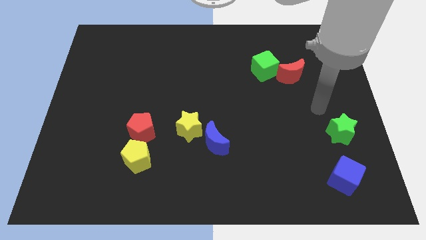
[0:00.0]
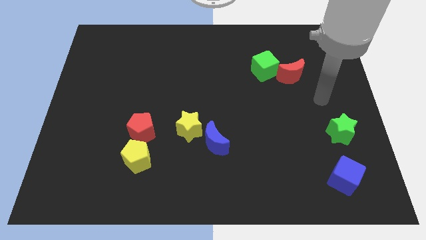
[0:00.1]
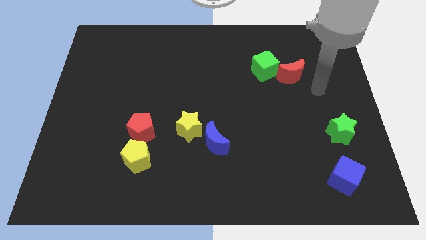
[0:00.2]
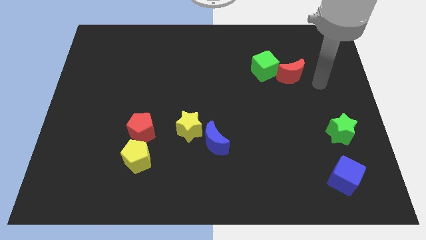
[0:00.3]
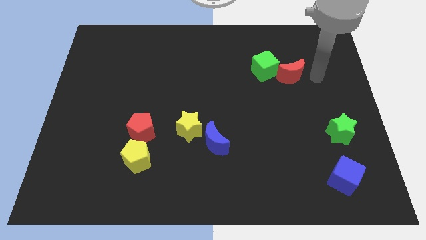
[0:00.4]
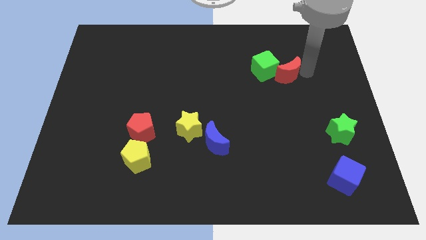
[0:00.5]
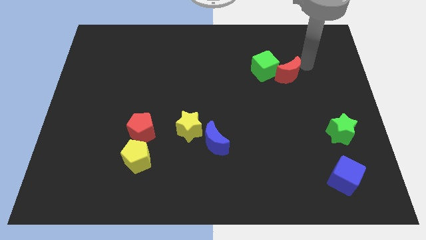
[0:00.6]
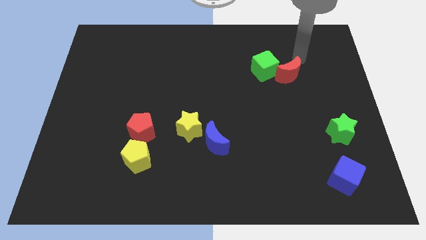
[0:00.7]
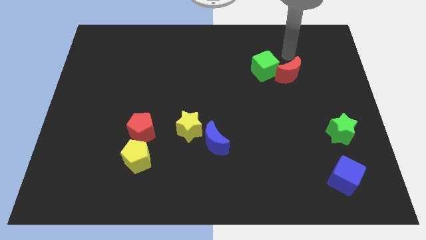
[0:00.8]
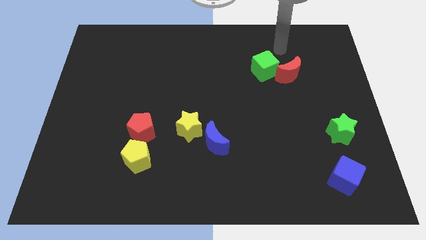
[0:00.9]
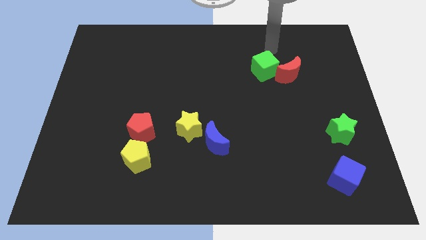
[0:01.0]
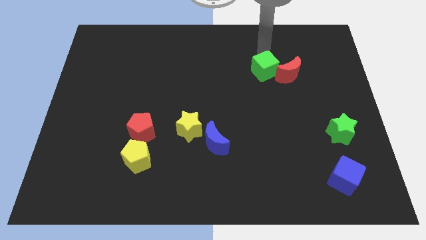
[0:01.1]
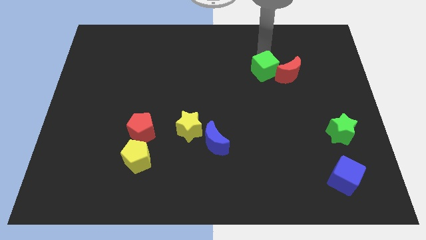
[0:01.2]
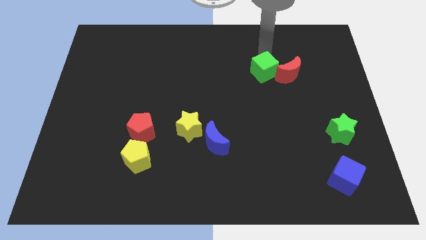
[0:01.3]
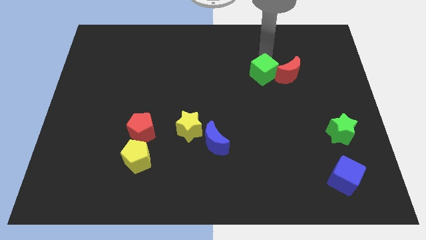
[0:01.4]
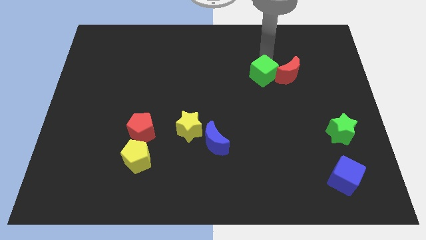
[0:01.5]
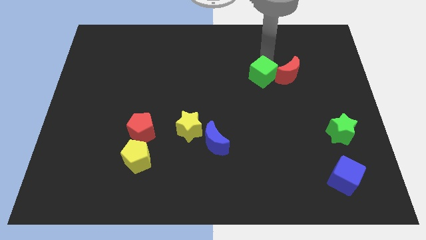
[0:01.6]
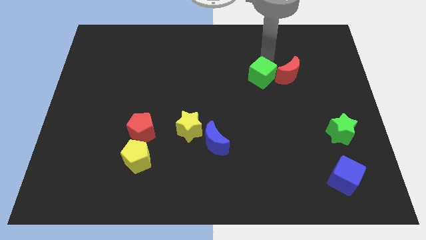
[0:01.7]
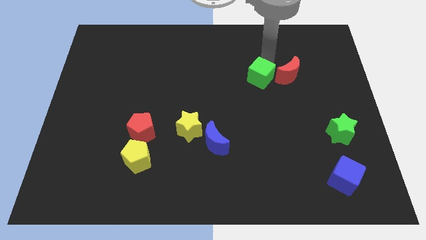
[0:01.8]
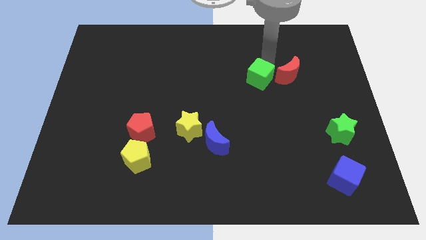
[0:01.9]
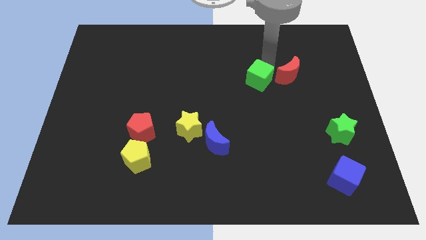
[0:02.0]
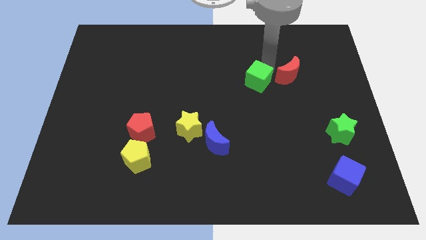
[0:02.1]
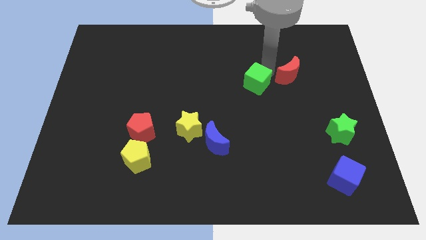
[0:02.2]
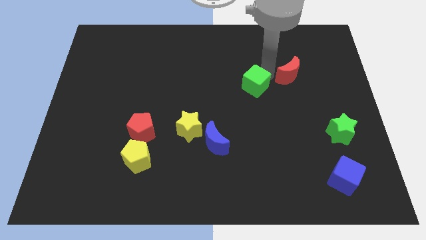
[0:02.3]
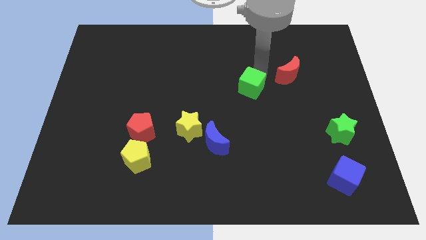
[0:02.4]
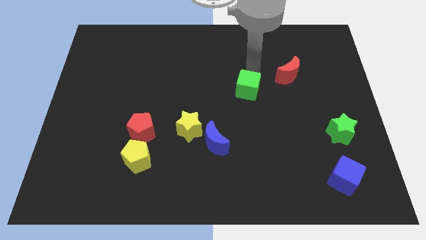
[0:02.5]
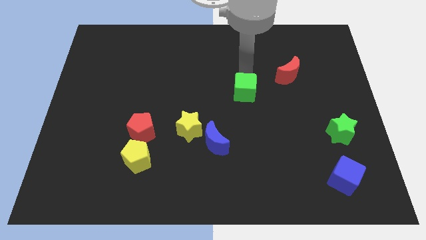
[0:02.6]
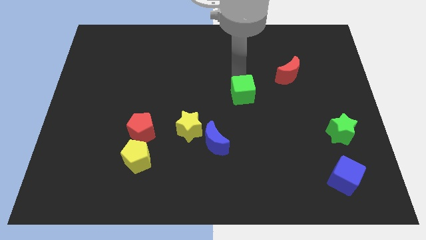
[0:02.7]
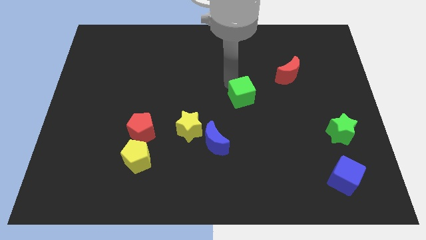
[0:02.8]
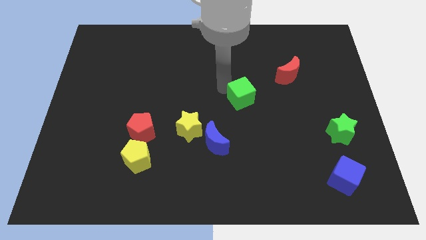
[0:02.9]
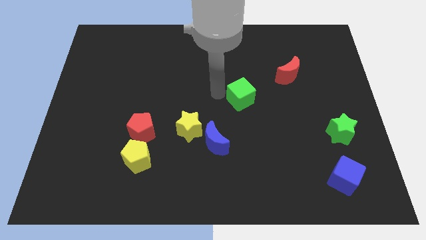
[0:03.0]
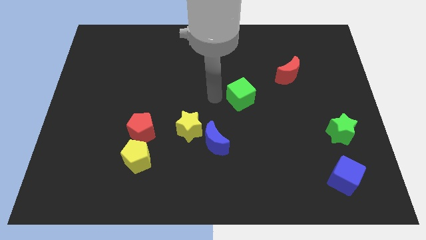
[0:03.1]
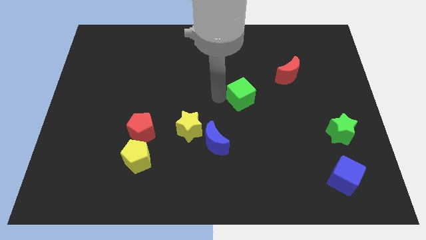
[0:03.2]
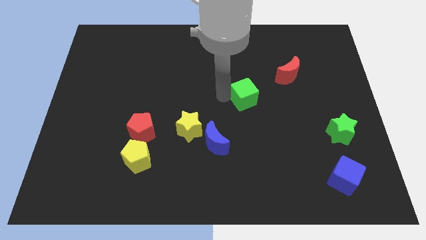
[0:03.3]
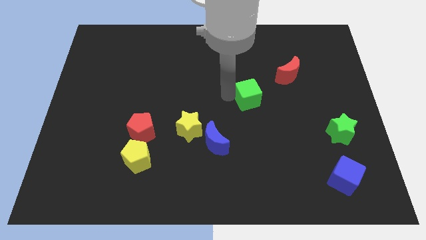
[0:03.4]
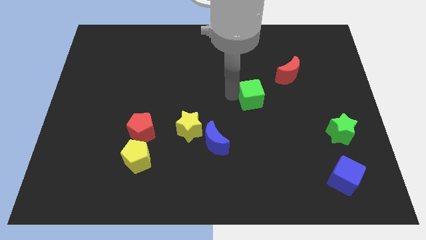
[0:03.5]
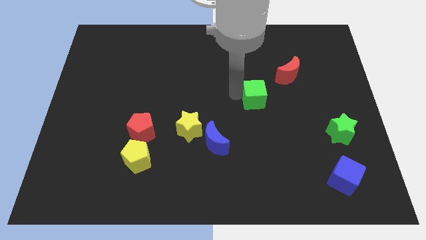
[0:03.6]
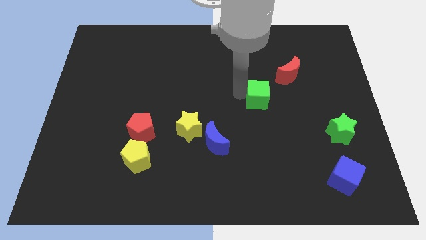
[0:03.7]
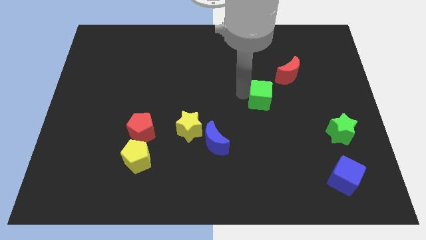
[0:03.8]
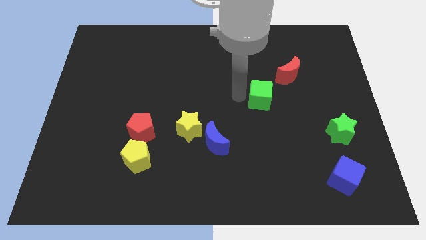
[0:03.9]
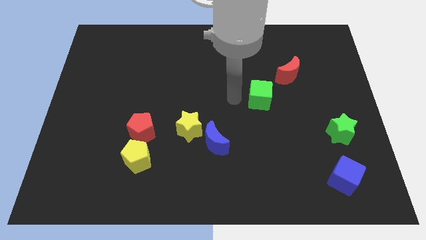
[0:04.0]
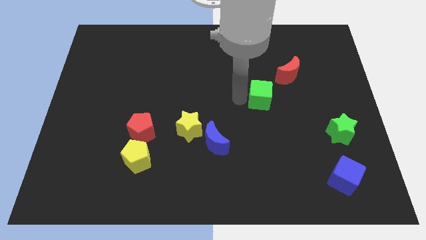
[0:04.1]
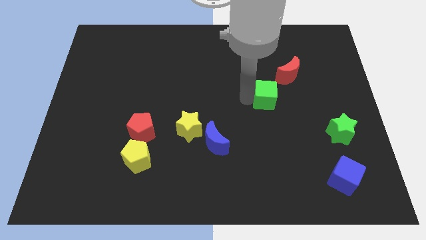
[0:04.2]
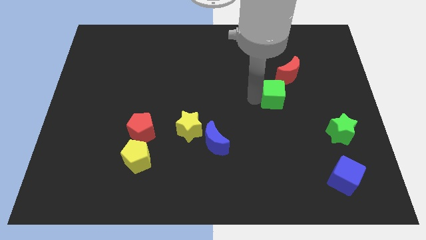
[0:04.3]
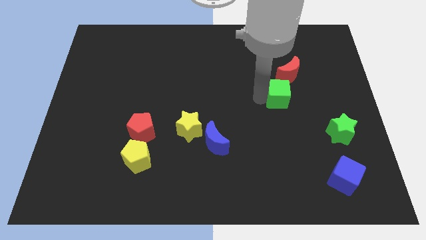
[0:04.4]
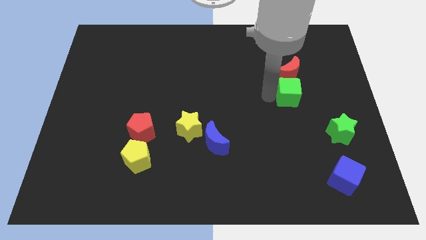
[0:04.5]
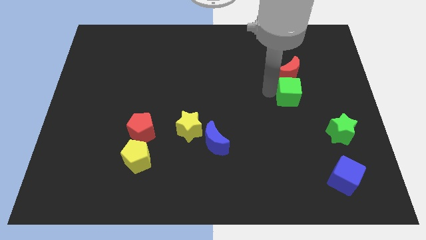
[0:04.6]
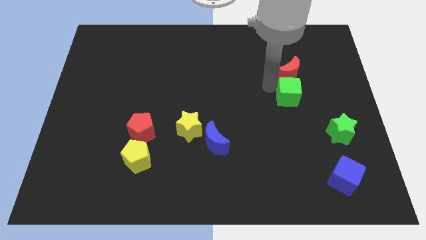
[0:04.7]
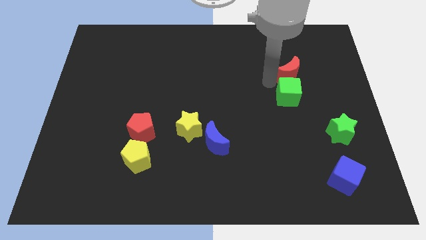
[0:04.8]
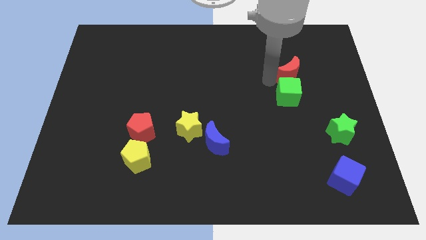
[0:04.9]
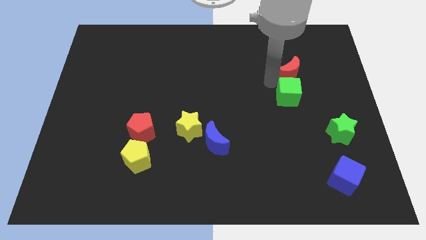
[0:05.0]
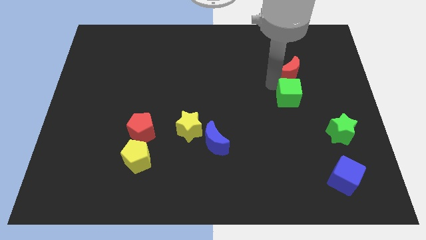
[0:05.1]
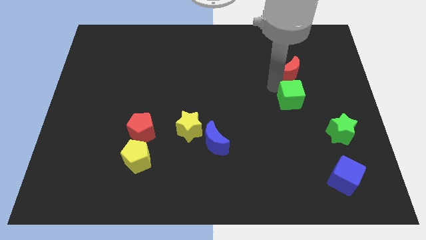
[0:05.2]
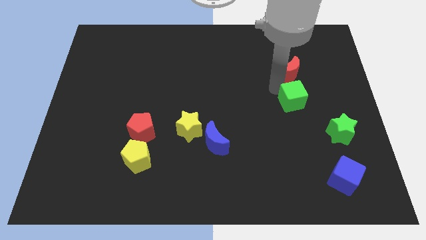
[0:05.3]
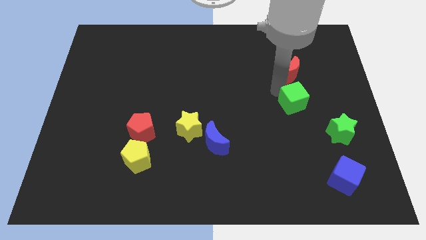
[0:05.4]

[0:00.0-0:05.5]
push the green cube to the top left of the green star
